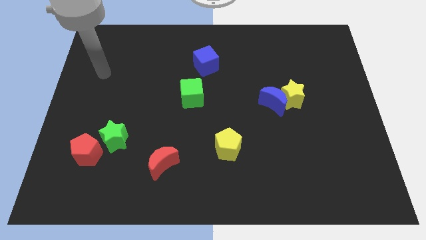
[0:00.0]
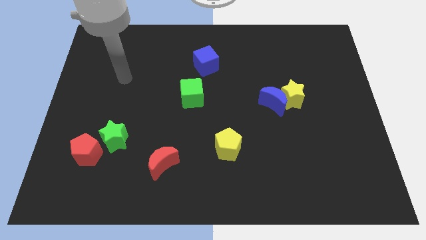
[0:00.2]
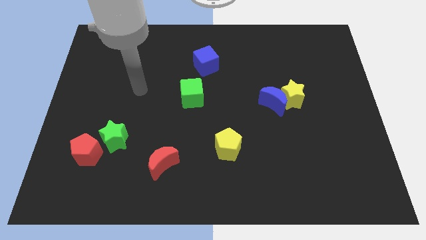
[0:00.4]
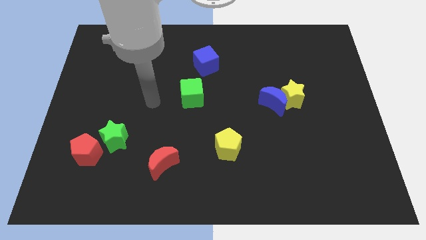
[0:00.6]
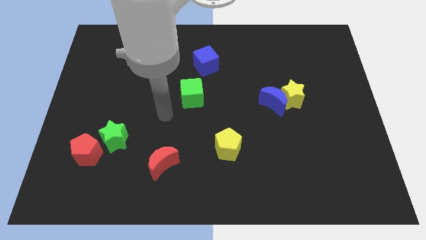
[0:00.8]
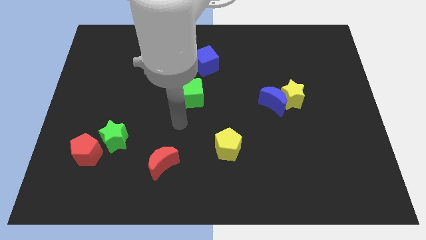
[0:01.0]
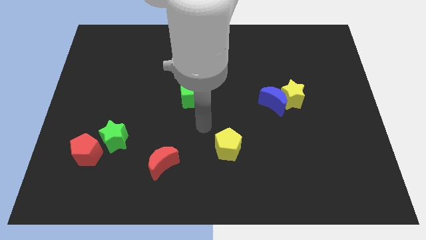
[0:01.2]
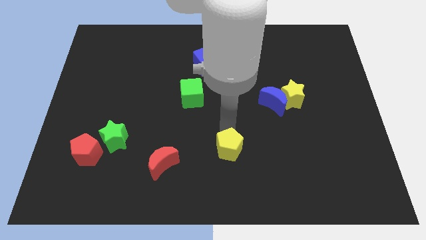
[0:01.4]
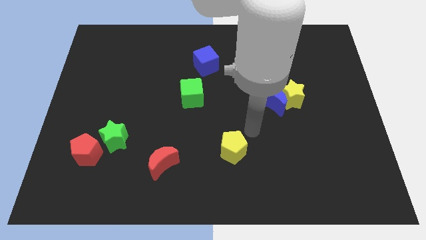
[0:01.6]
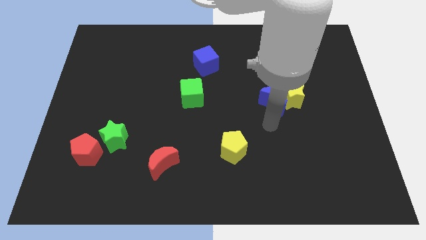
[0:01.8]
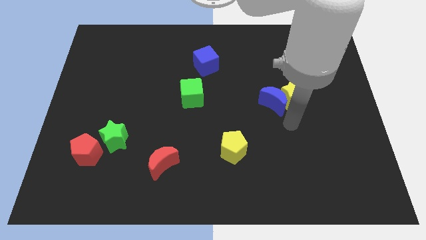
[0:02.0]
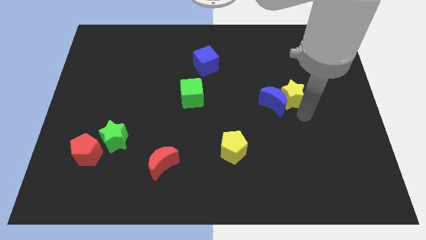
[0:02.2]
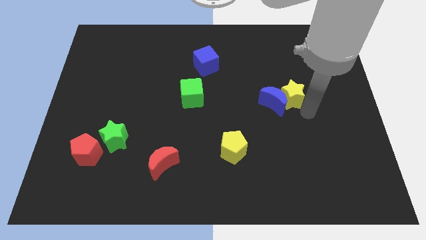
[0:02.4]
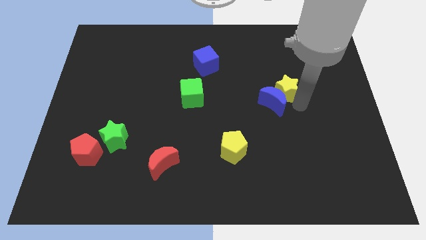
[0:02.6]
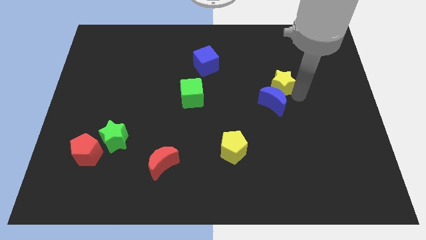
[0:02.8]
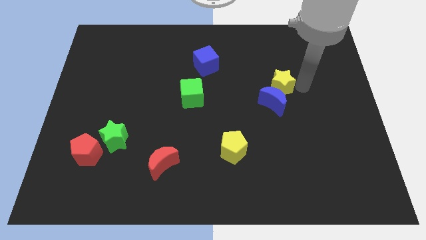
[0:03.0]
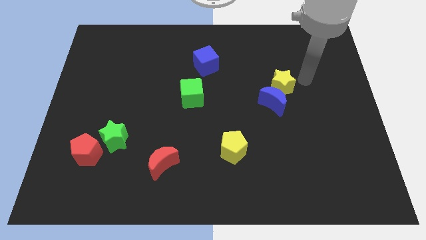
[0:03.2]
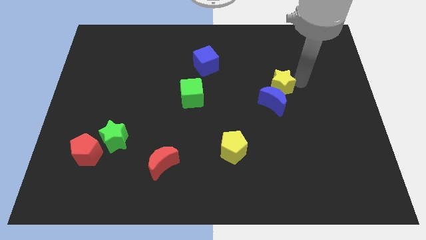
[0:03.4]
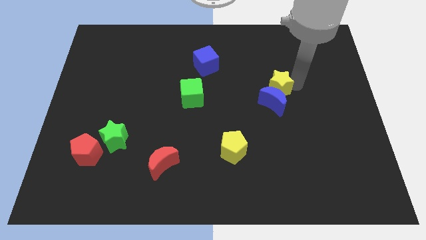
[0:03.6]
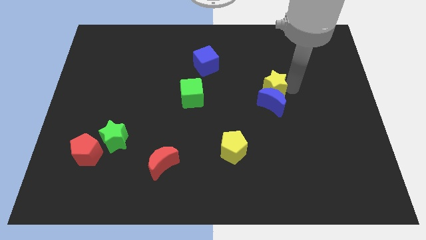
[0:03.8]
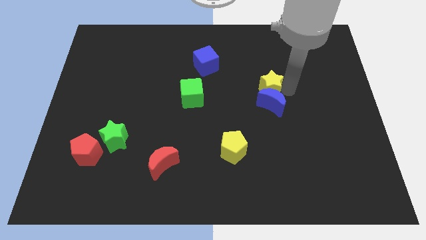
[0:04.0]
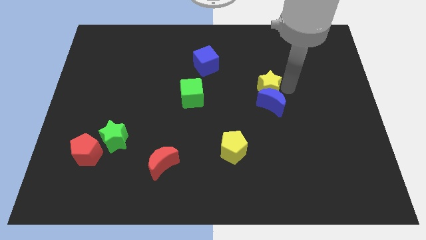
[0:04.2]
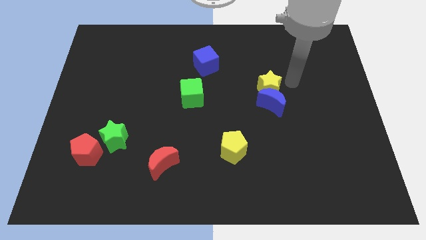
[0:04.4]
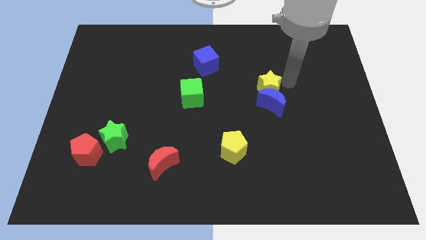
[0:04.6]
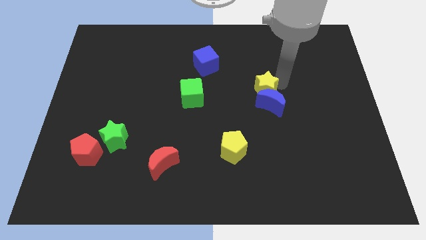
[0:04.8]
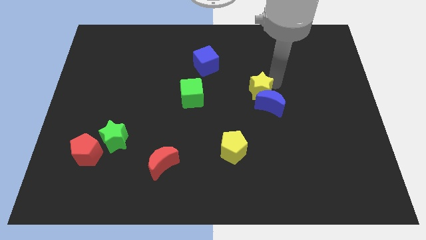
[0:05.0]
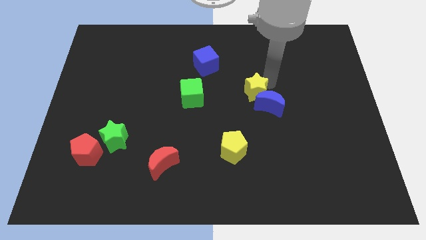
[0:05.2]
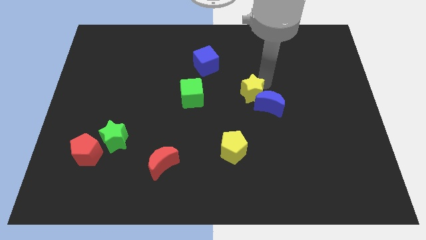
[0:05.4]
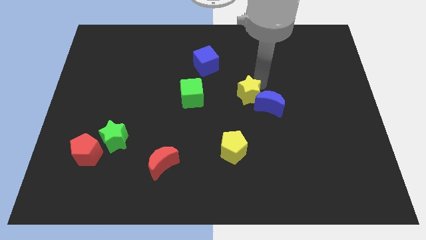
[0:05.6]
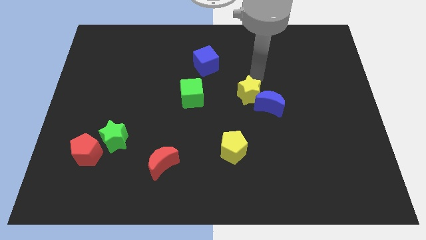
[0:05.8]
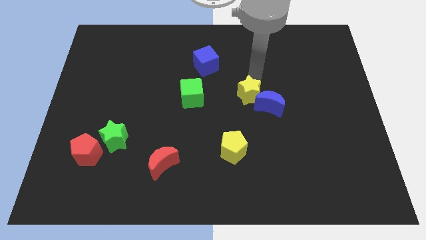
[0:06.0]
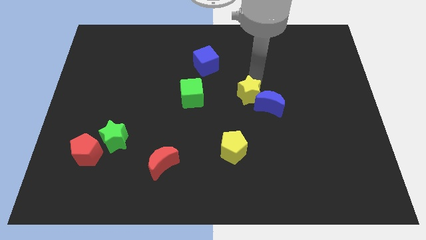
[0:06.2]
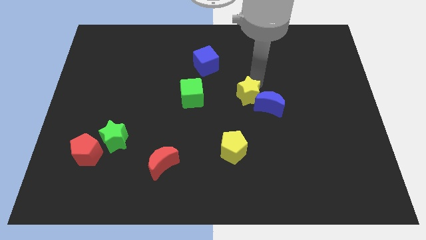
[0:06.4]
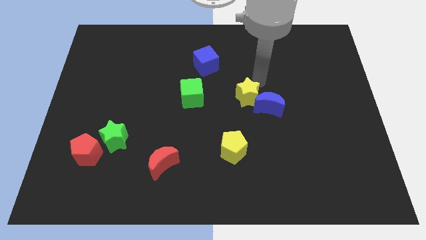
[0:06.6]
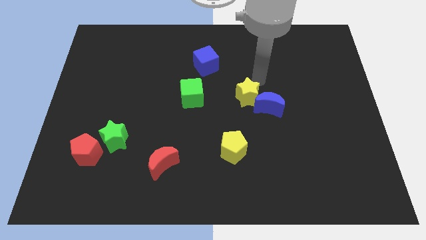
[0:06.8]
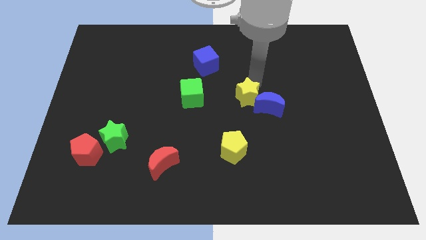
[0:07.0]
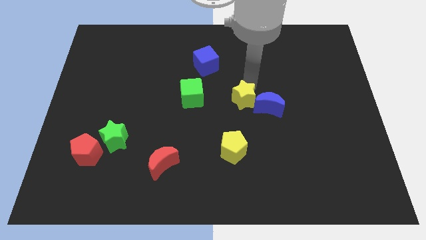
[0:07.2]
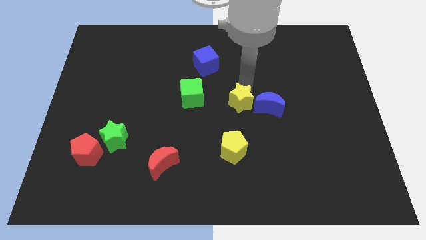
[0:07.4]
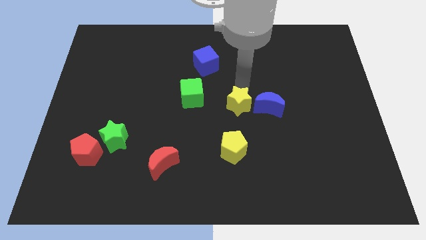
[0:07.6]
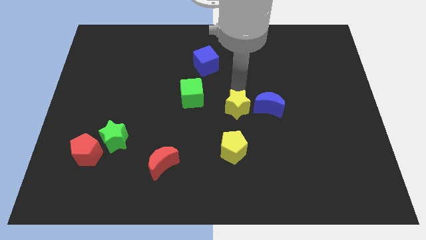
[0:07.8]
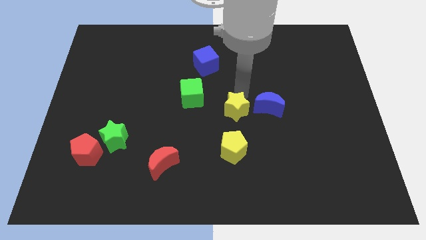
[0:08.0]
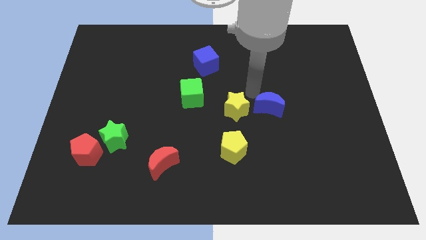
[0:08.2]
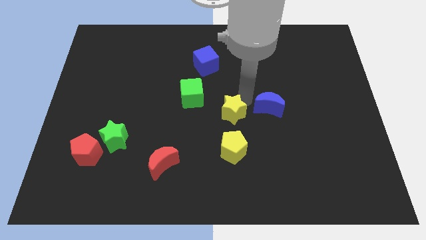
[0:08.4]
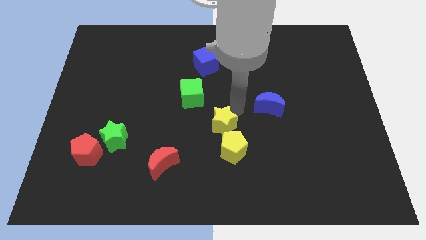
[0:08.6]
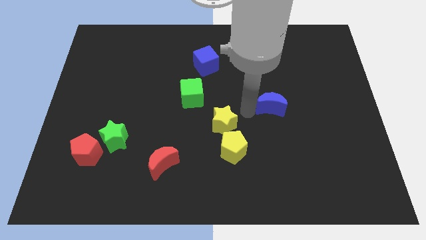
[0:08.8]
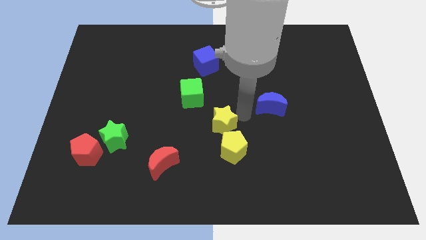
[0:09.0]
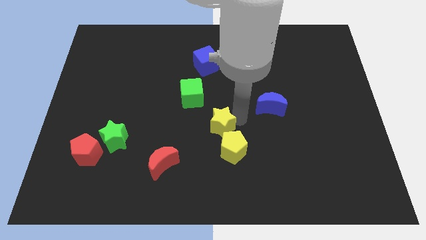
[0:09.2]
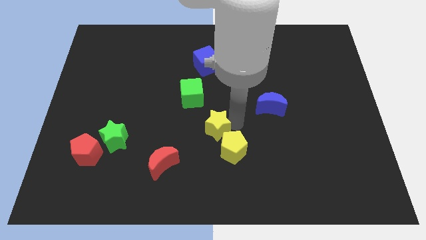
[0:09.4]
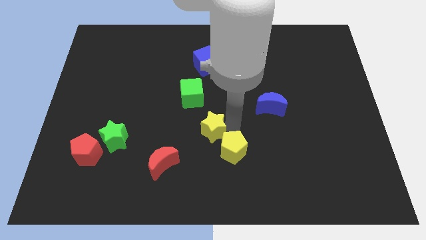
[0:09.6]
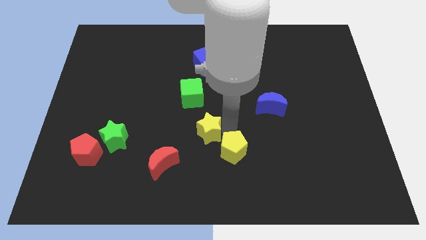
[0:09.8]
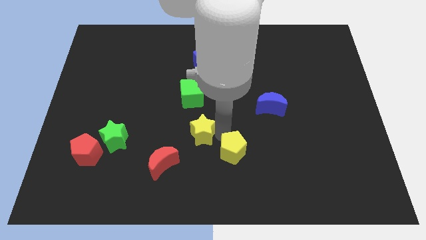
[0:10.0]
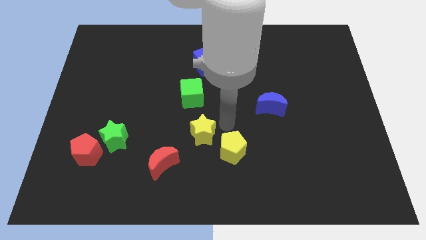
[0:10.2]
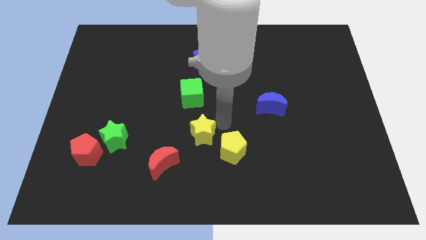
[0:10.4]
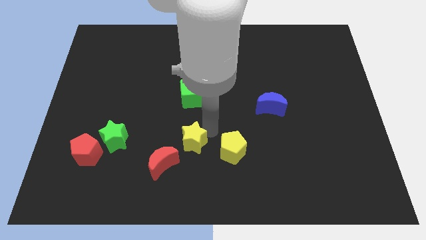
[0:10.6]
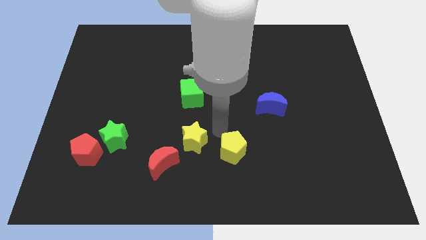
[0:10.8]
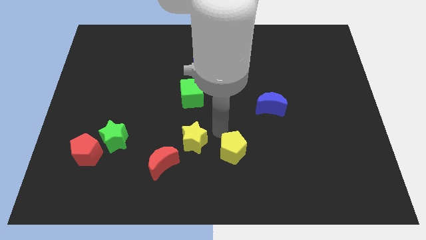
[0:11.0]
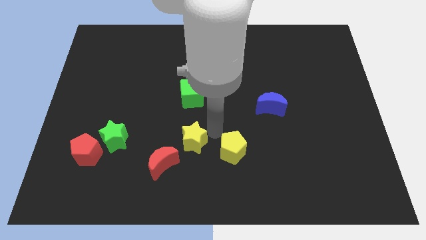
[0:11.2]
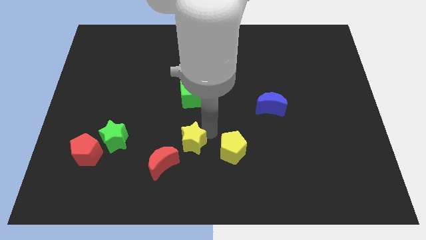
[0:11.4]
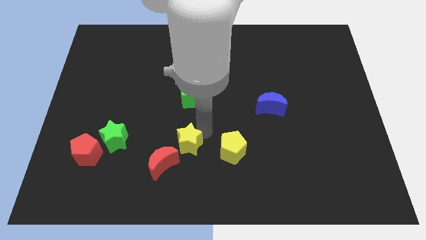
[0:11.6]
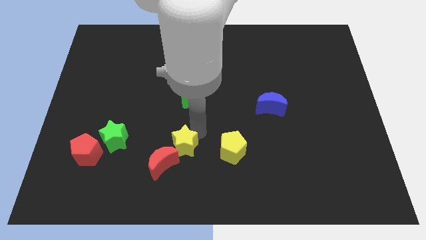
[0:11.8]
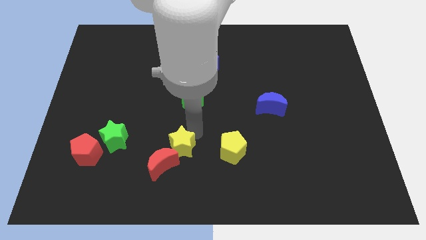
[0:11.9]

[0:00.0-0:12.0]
put the yellow star next to the red moon

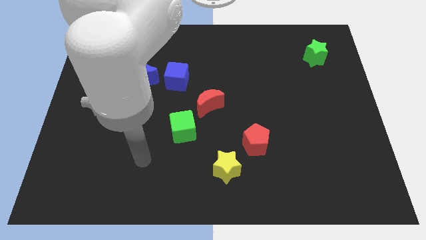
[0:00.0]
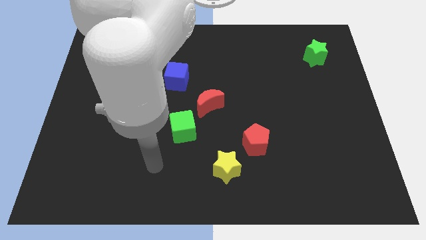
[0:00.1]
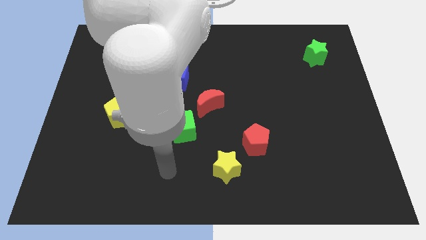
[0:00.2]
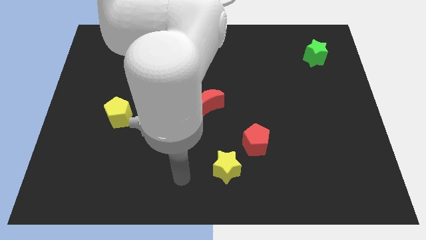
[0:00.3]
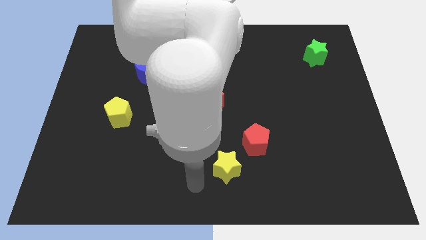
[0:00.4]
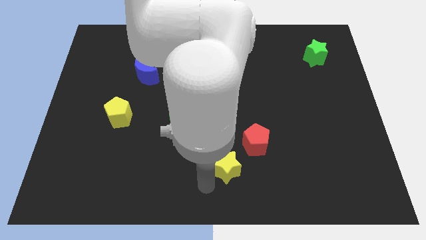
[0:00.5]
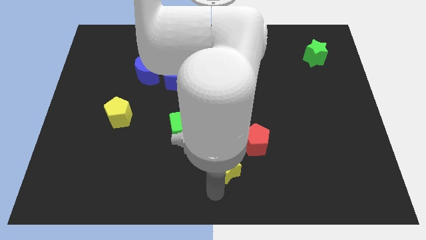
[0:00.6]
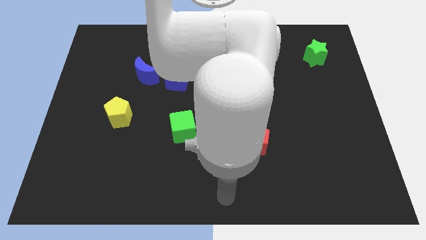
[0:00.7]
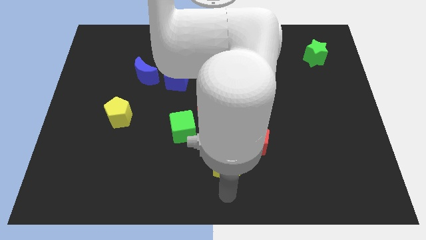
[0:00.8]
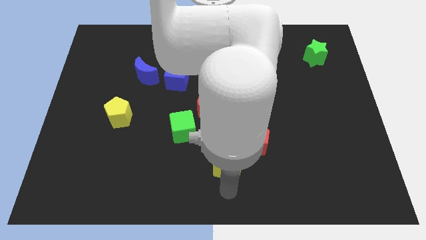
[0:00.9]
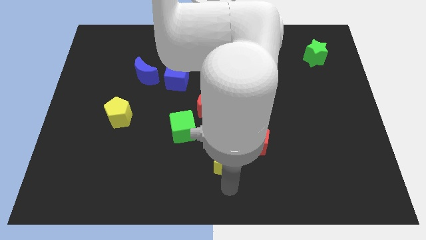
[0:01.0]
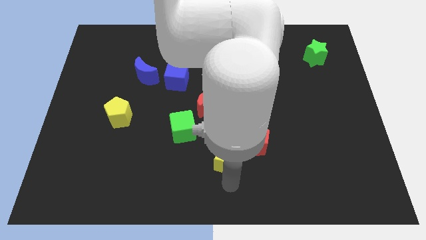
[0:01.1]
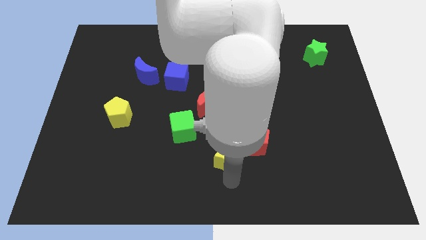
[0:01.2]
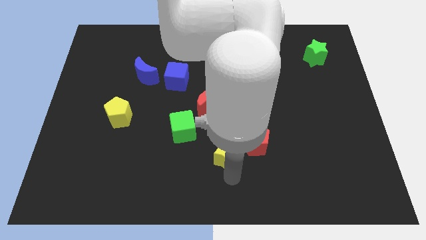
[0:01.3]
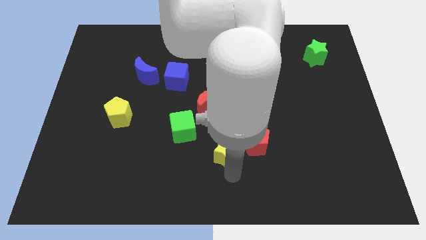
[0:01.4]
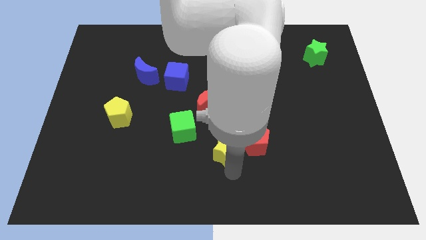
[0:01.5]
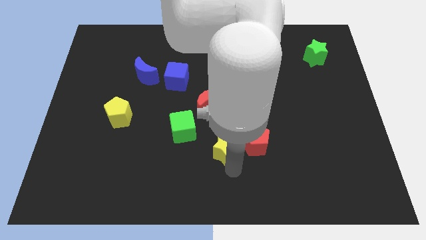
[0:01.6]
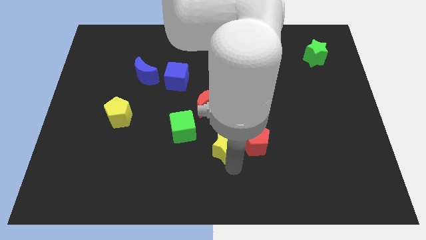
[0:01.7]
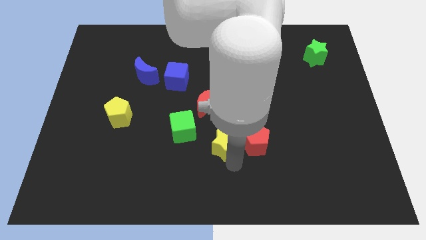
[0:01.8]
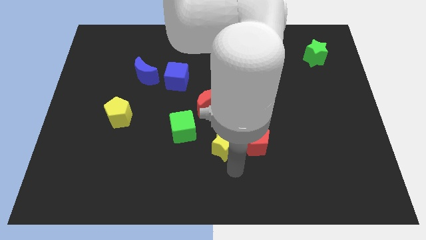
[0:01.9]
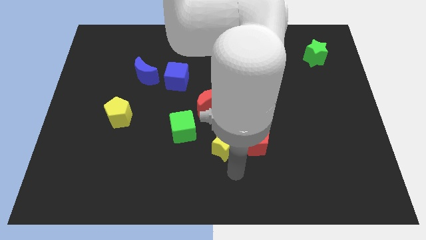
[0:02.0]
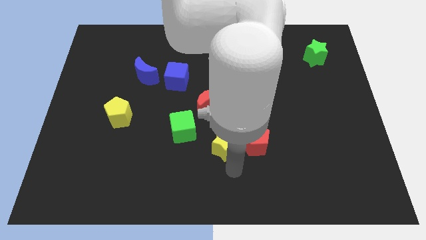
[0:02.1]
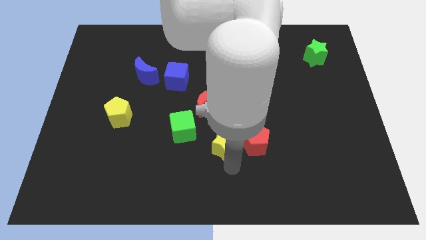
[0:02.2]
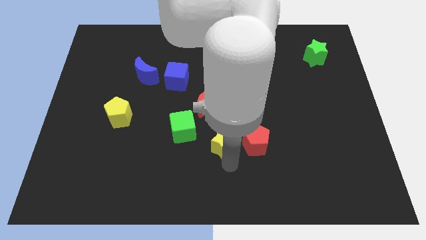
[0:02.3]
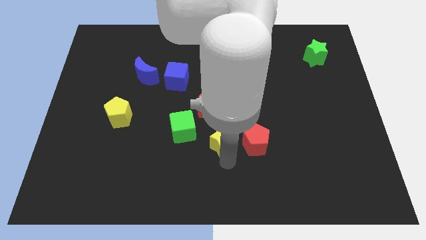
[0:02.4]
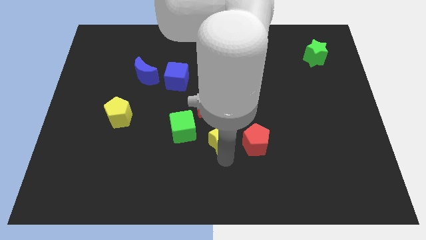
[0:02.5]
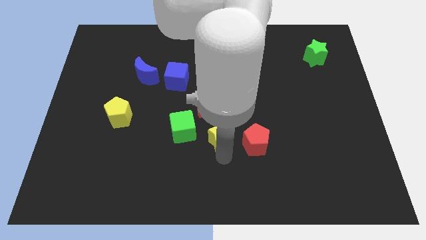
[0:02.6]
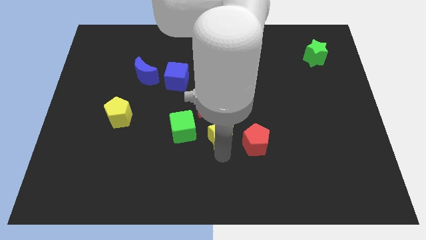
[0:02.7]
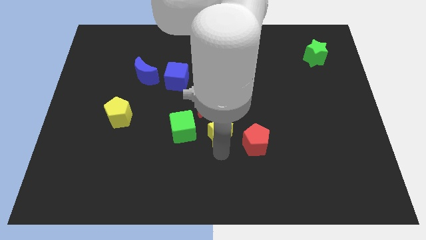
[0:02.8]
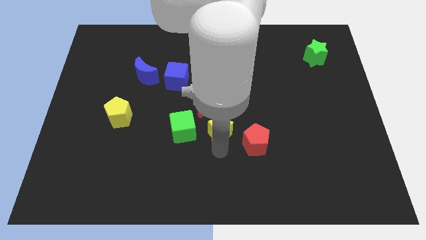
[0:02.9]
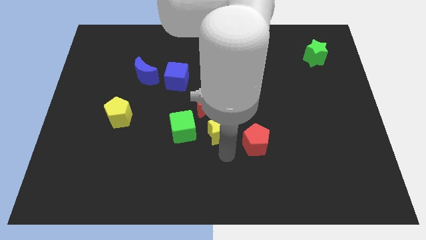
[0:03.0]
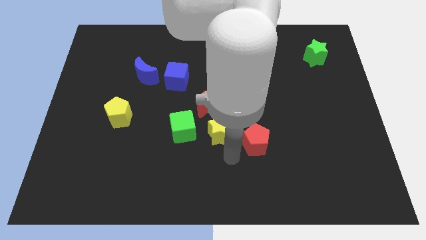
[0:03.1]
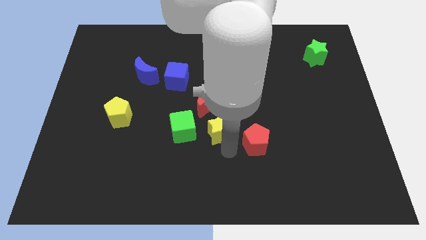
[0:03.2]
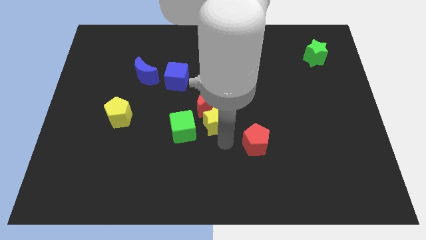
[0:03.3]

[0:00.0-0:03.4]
push the yellow star close to the red moon
